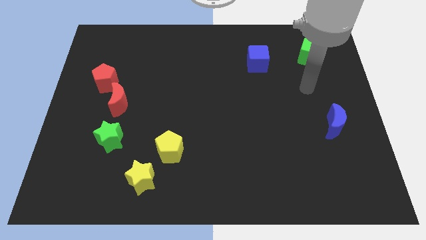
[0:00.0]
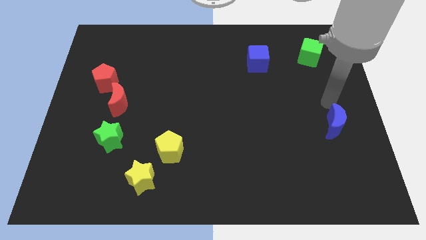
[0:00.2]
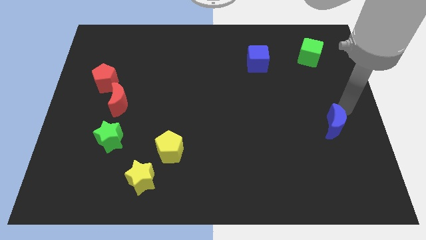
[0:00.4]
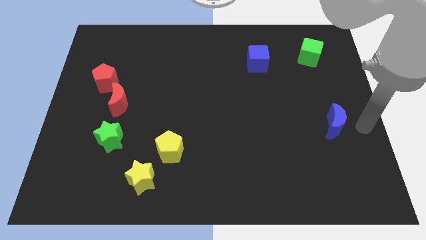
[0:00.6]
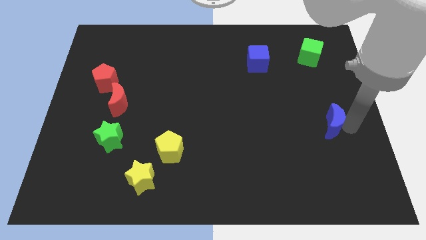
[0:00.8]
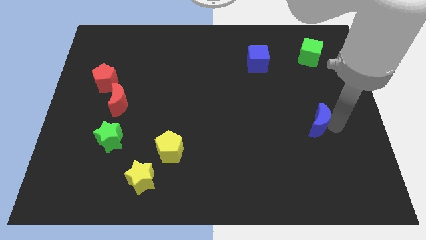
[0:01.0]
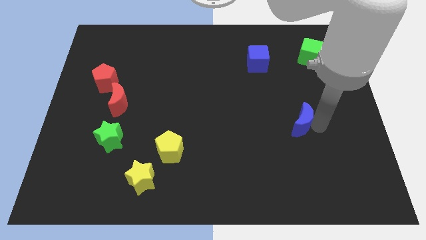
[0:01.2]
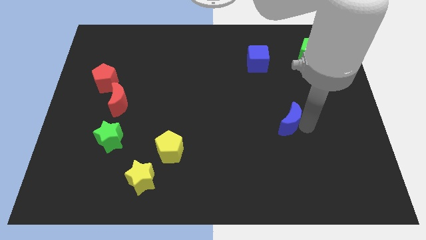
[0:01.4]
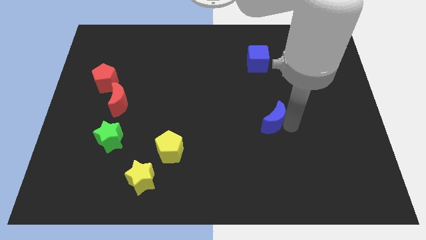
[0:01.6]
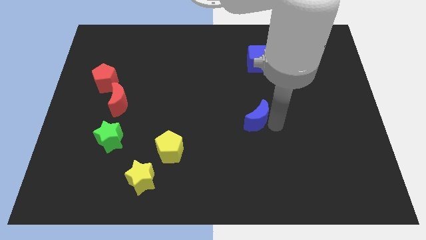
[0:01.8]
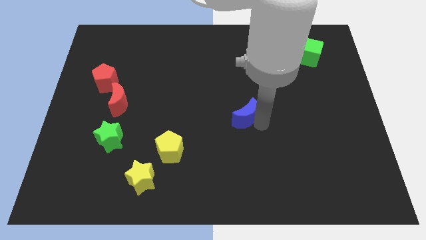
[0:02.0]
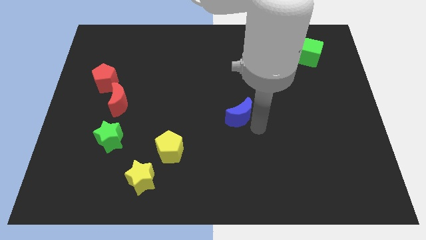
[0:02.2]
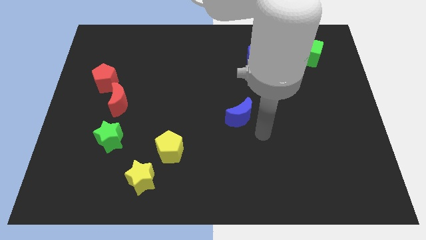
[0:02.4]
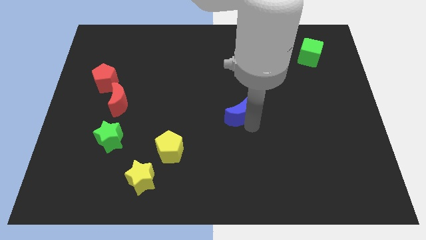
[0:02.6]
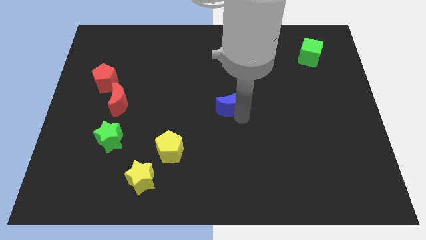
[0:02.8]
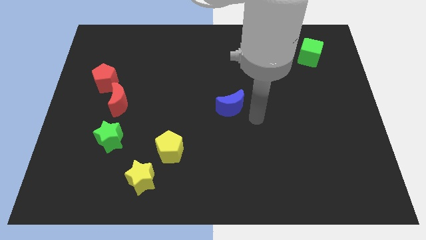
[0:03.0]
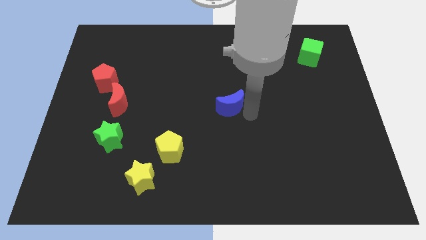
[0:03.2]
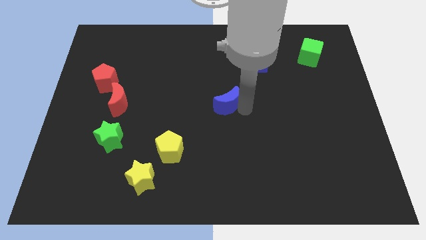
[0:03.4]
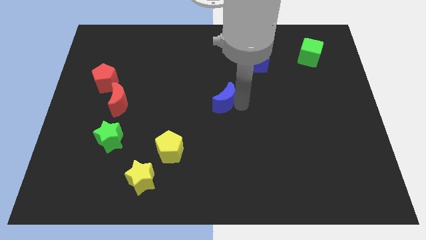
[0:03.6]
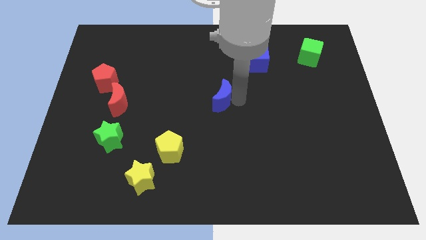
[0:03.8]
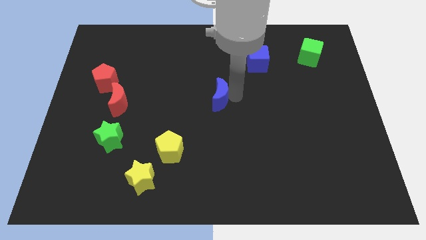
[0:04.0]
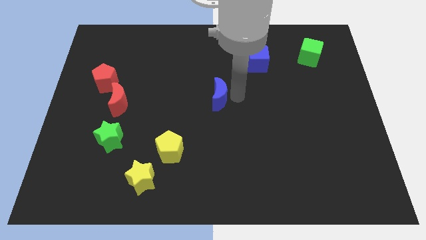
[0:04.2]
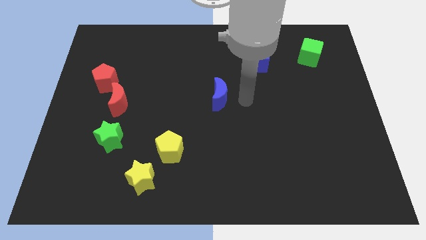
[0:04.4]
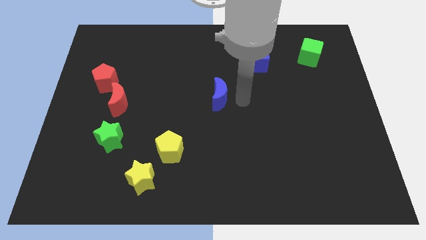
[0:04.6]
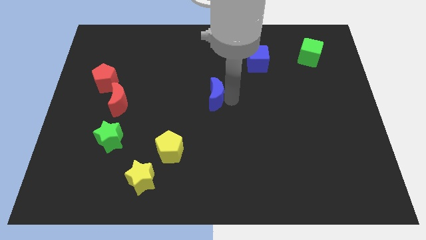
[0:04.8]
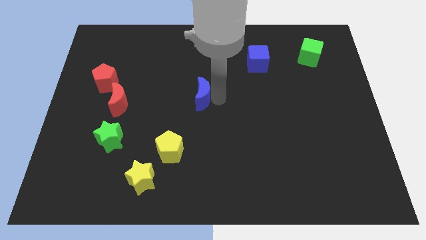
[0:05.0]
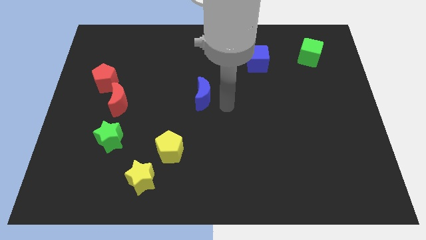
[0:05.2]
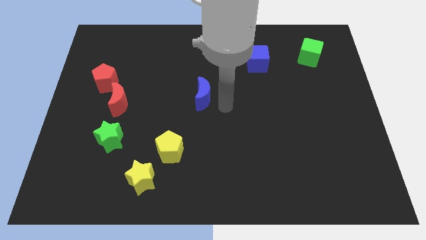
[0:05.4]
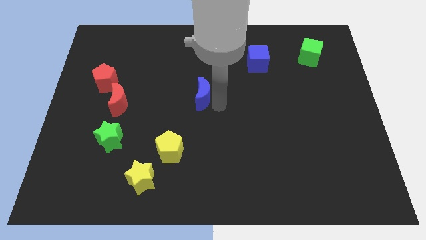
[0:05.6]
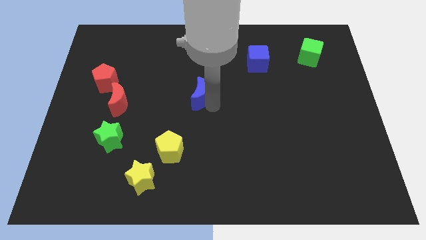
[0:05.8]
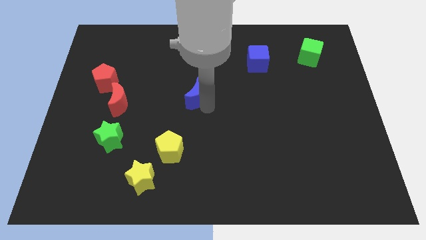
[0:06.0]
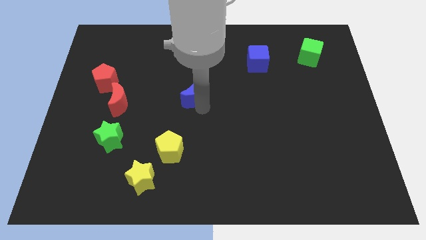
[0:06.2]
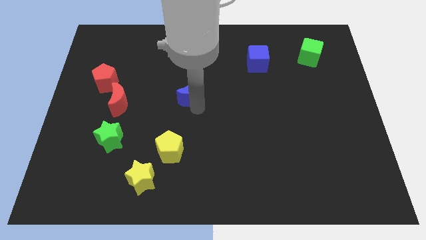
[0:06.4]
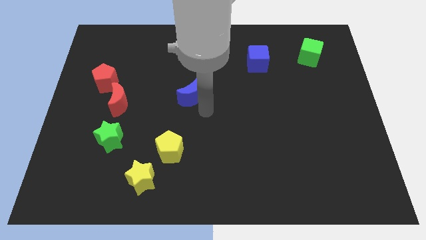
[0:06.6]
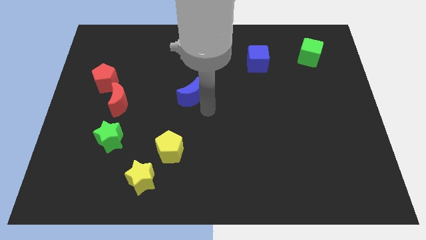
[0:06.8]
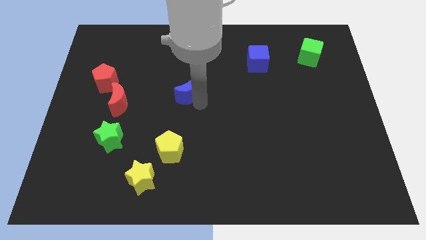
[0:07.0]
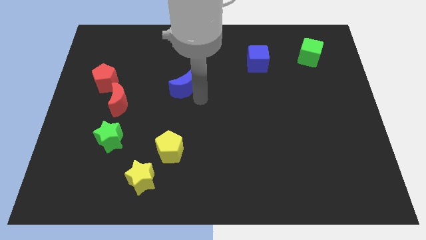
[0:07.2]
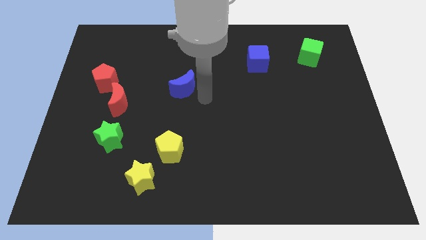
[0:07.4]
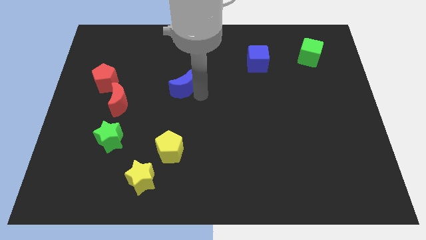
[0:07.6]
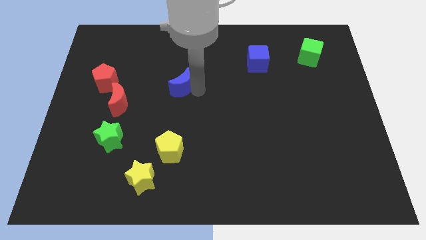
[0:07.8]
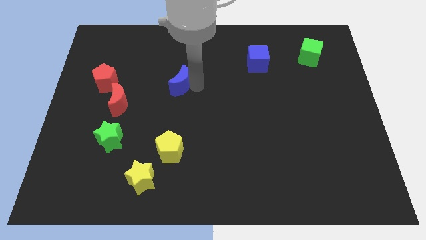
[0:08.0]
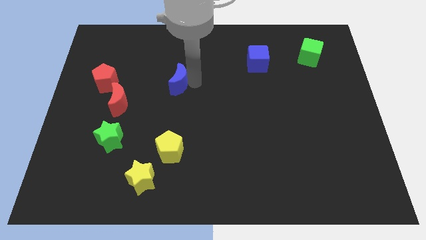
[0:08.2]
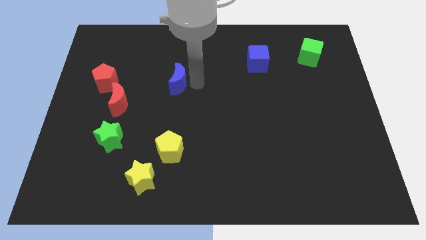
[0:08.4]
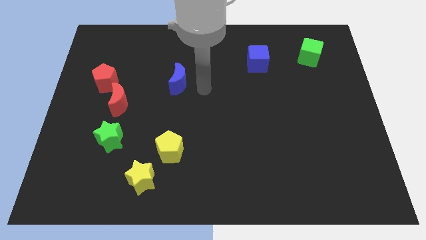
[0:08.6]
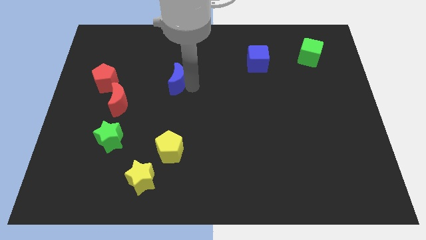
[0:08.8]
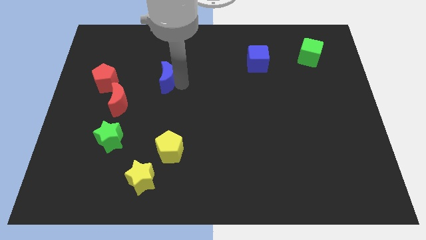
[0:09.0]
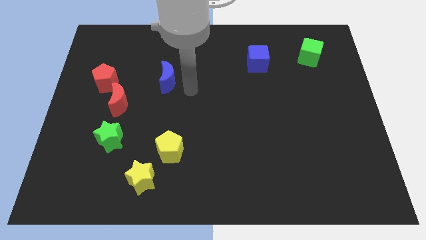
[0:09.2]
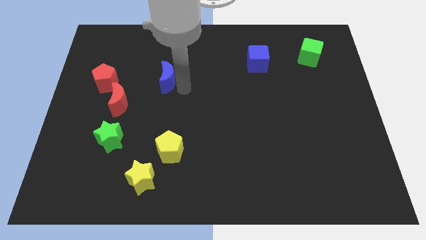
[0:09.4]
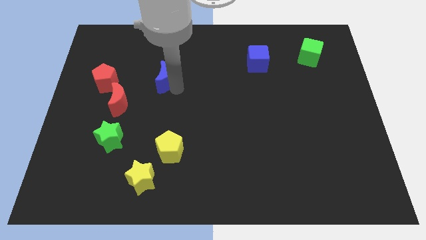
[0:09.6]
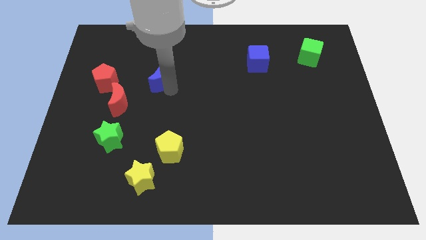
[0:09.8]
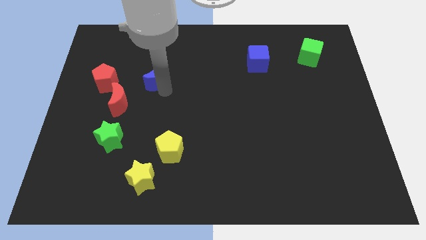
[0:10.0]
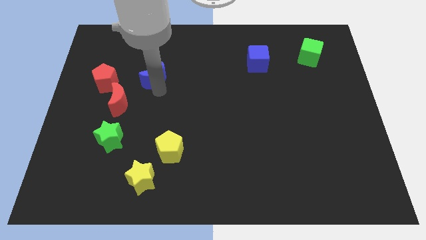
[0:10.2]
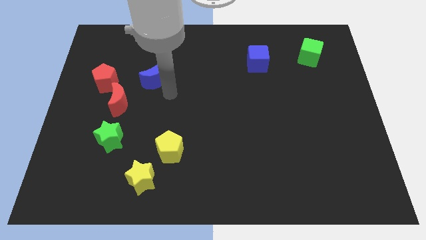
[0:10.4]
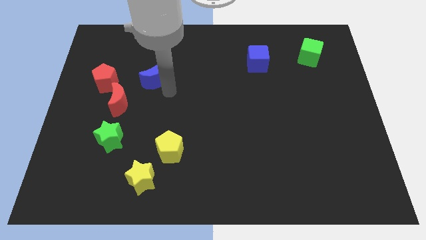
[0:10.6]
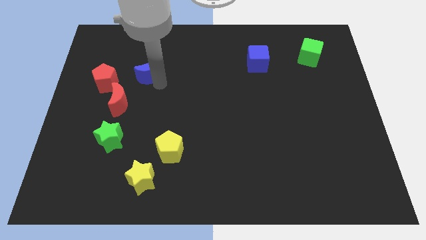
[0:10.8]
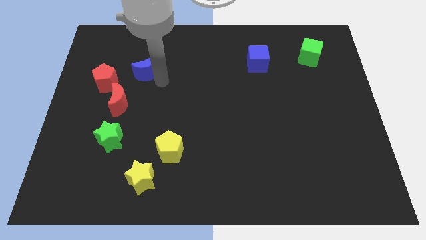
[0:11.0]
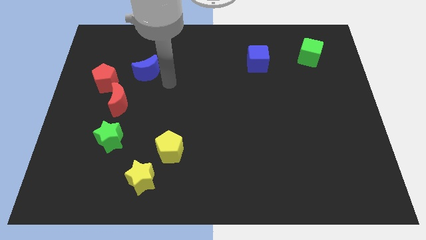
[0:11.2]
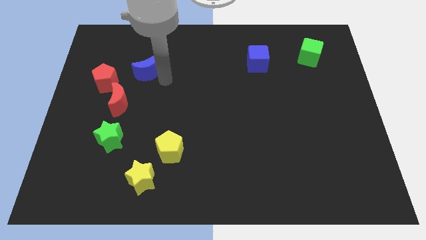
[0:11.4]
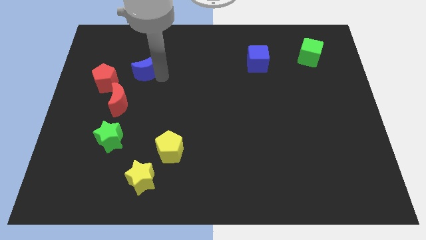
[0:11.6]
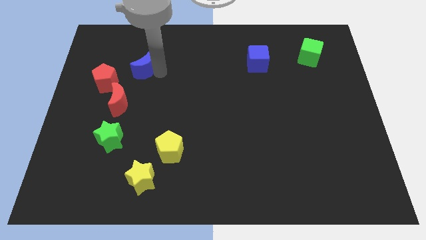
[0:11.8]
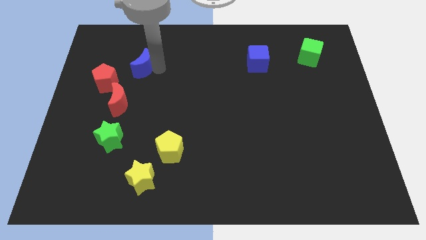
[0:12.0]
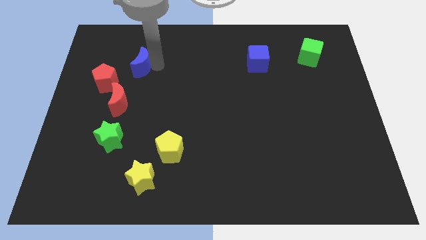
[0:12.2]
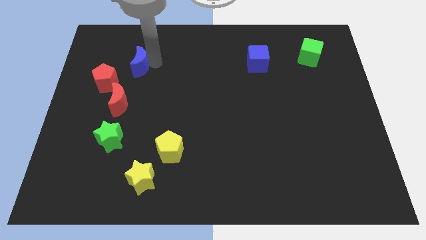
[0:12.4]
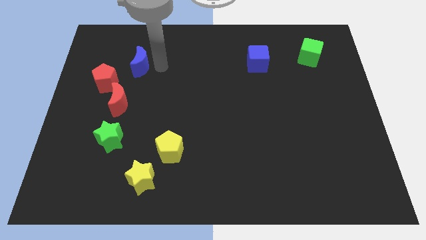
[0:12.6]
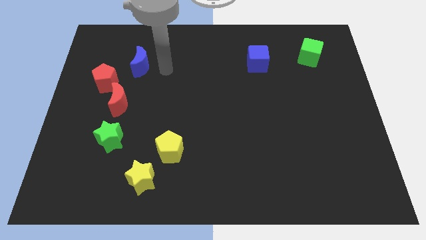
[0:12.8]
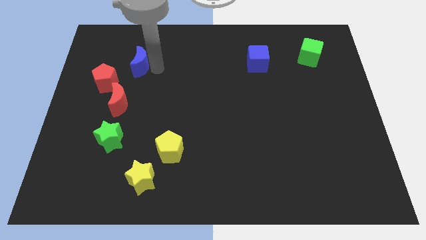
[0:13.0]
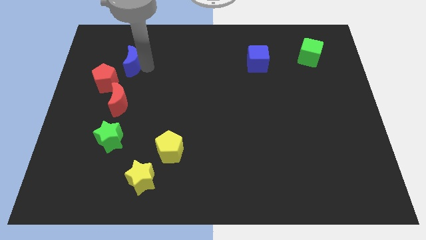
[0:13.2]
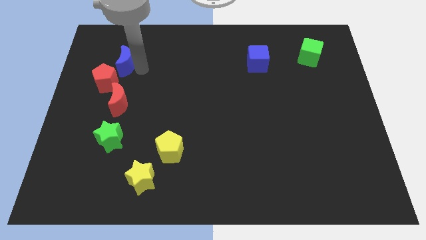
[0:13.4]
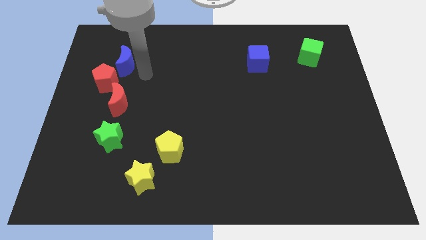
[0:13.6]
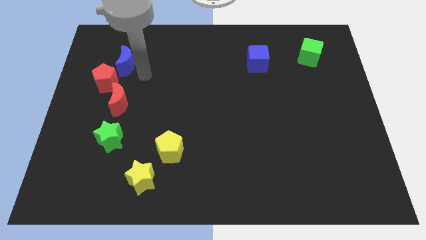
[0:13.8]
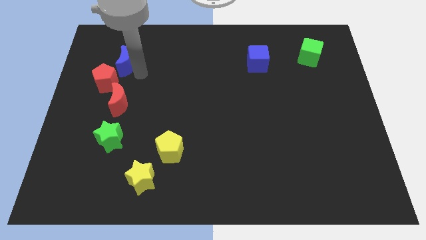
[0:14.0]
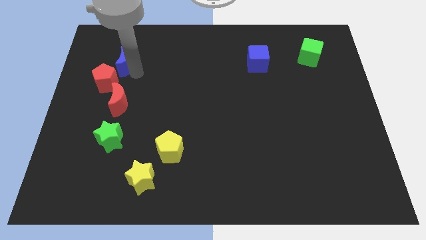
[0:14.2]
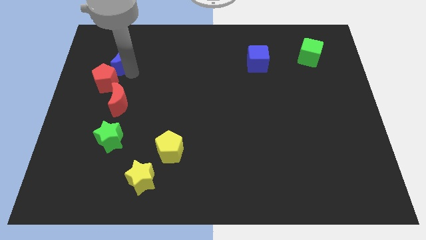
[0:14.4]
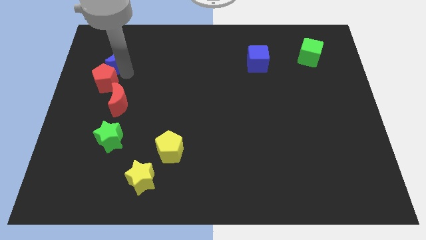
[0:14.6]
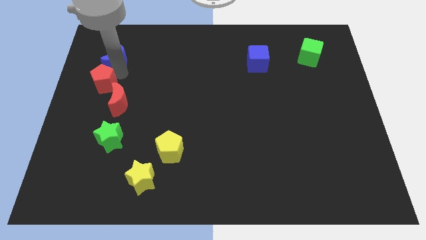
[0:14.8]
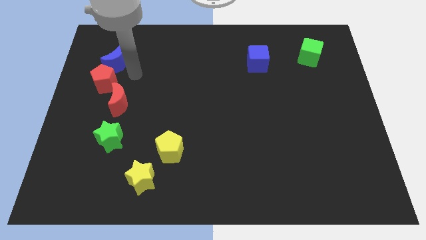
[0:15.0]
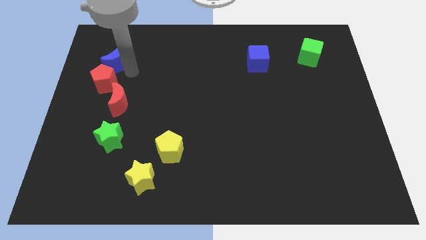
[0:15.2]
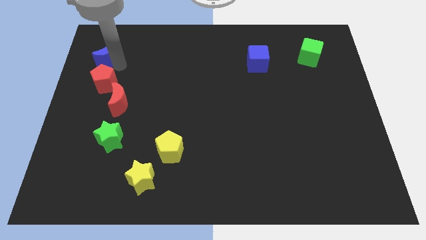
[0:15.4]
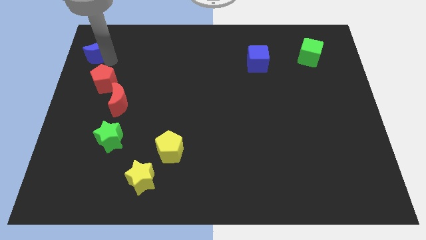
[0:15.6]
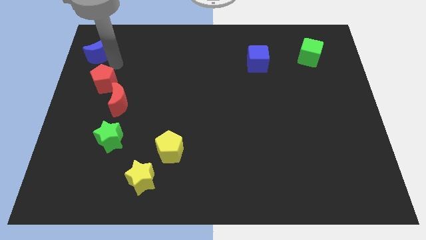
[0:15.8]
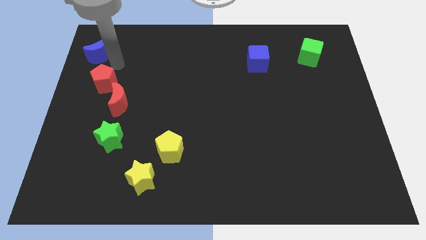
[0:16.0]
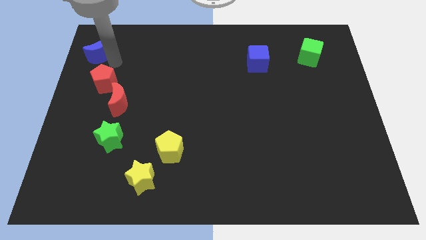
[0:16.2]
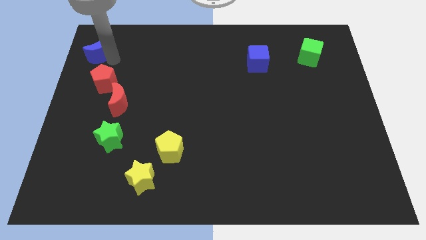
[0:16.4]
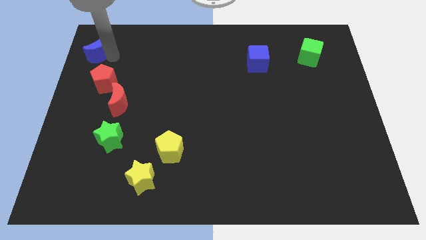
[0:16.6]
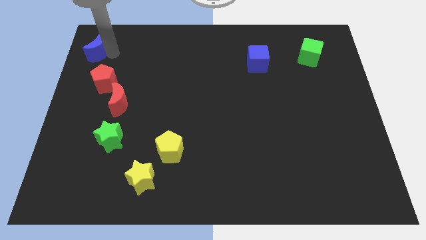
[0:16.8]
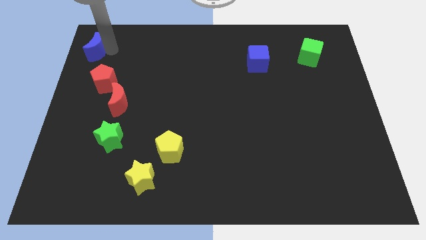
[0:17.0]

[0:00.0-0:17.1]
move the blue moon to the top left corner
